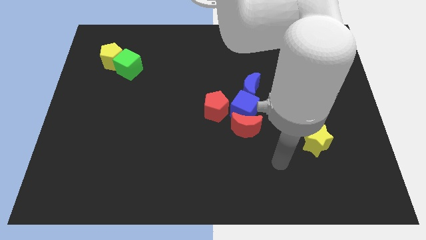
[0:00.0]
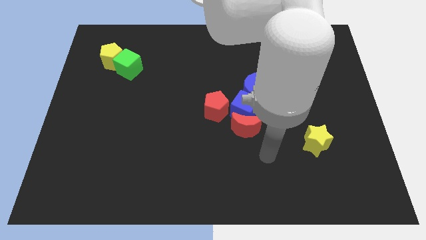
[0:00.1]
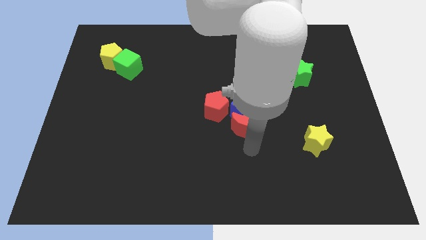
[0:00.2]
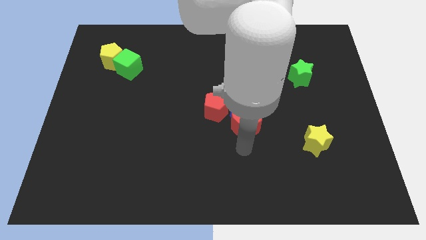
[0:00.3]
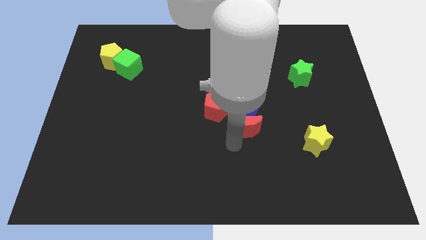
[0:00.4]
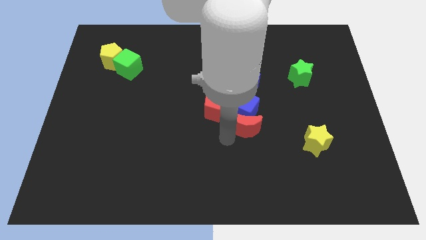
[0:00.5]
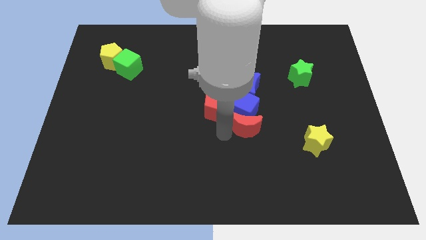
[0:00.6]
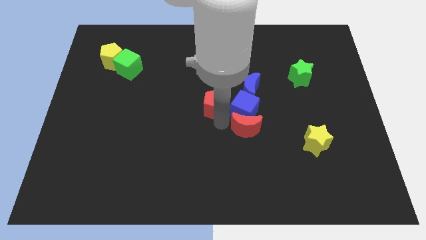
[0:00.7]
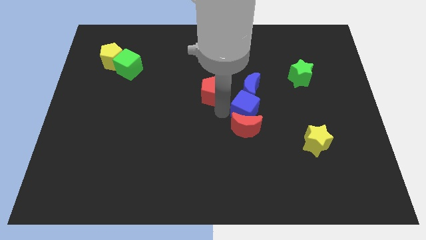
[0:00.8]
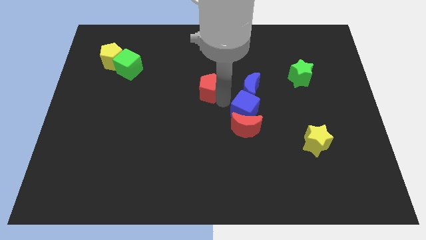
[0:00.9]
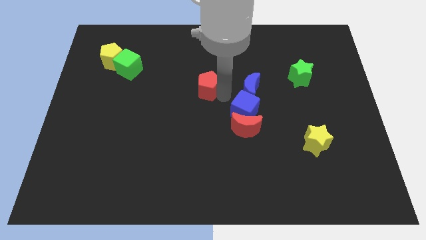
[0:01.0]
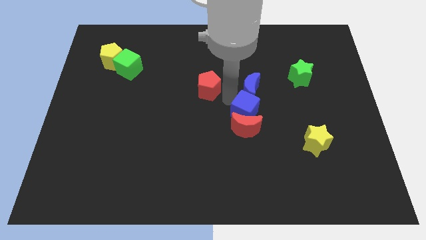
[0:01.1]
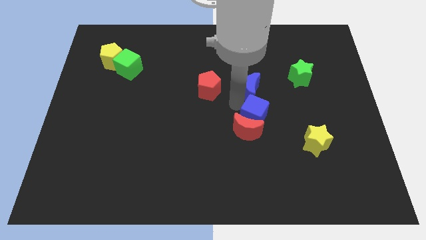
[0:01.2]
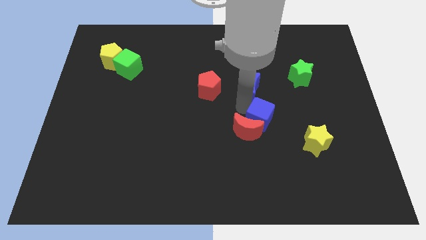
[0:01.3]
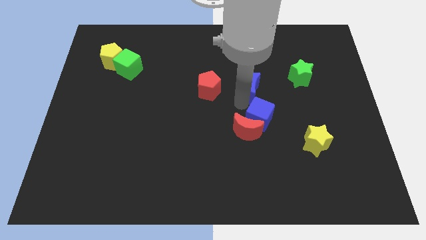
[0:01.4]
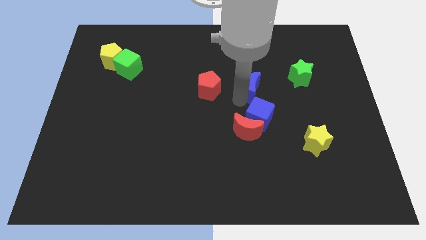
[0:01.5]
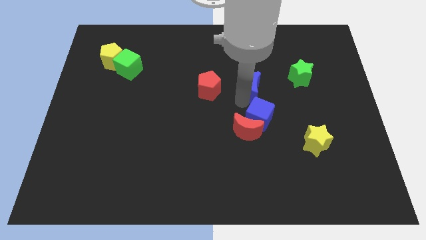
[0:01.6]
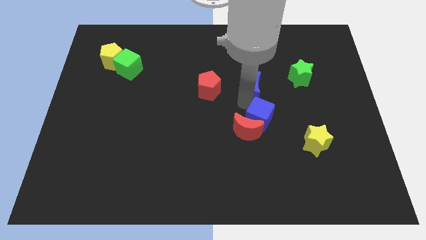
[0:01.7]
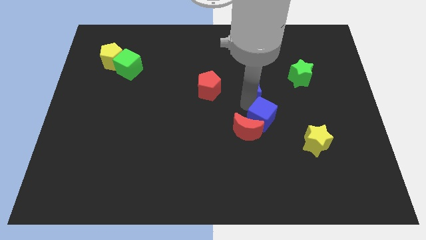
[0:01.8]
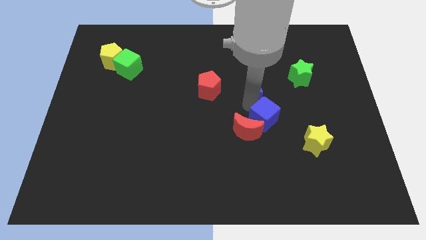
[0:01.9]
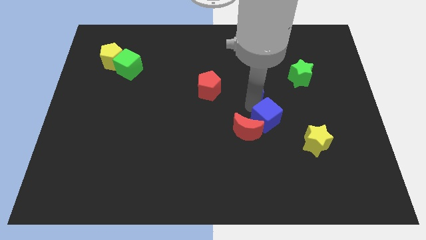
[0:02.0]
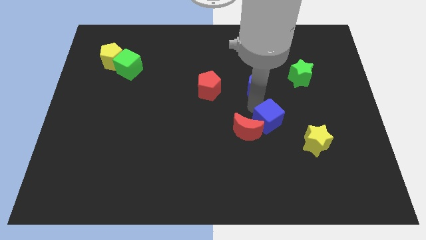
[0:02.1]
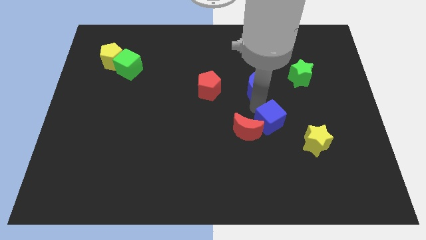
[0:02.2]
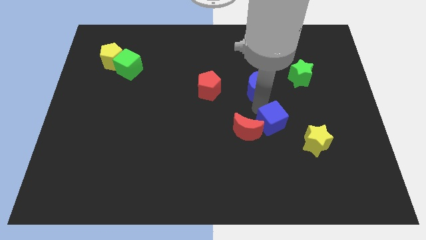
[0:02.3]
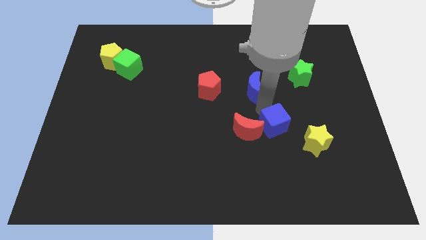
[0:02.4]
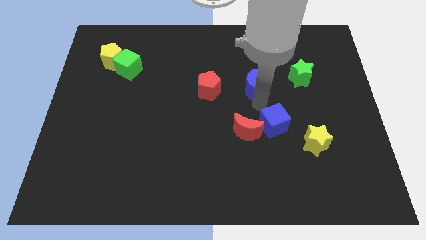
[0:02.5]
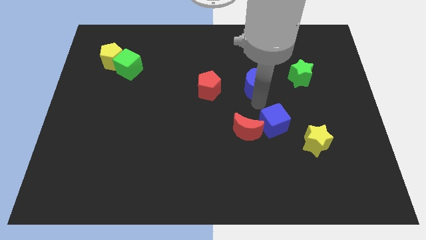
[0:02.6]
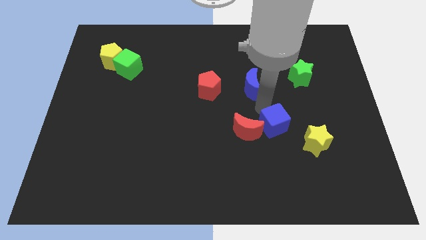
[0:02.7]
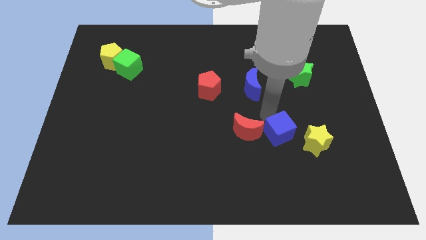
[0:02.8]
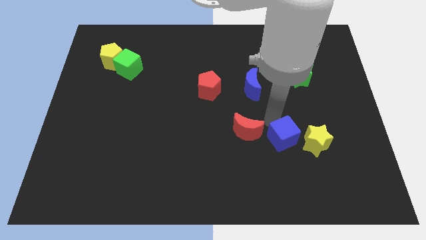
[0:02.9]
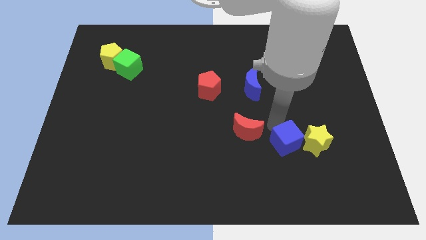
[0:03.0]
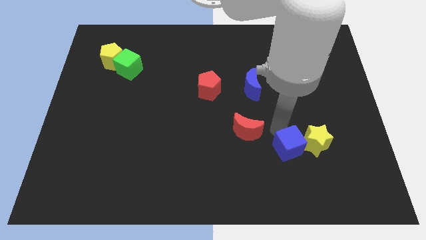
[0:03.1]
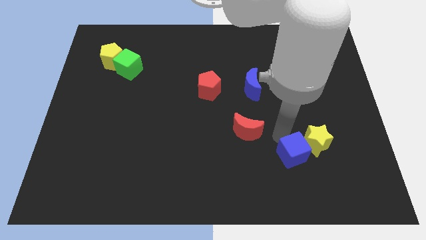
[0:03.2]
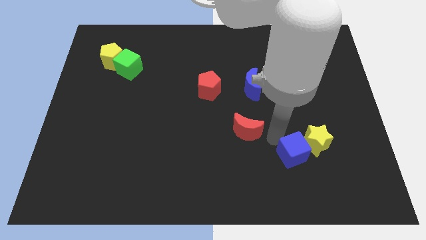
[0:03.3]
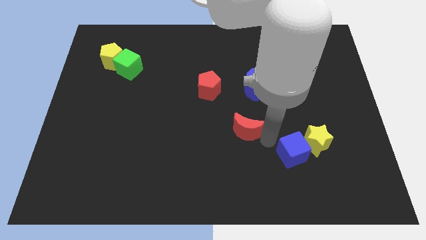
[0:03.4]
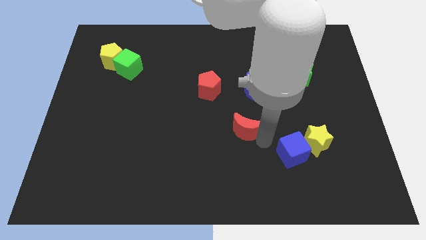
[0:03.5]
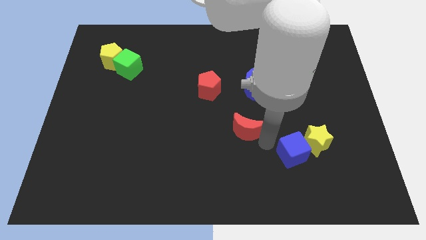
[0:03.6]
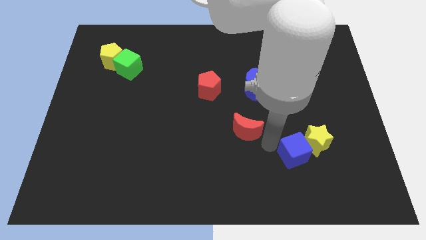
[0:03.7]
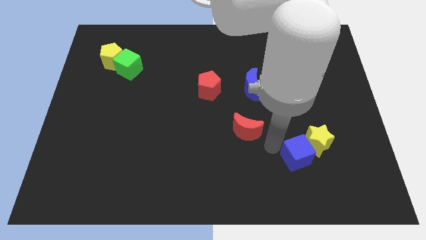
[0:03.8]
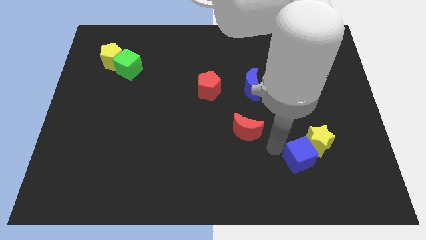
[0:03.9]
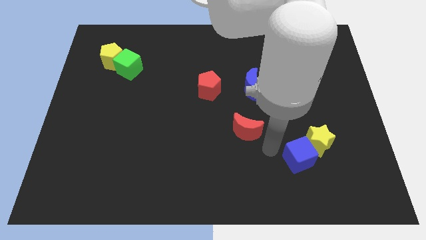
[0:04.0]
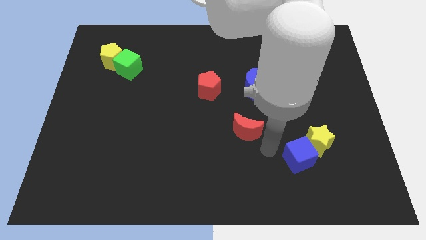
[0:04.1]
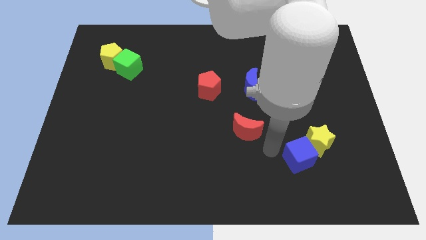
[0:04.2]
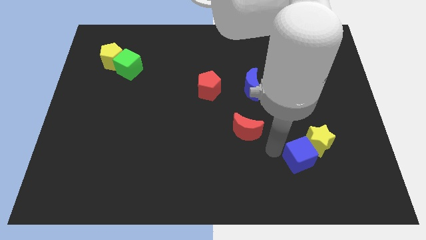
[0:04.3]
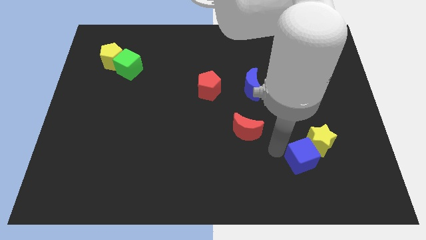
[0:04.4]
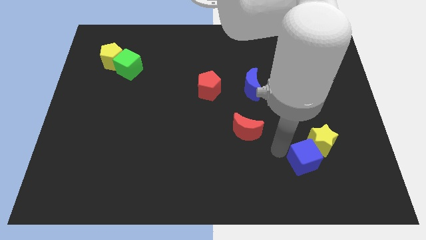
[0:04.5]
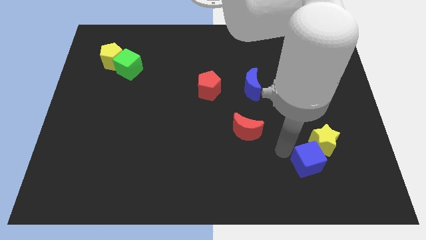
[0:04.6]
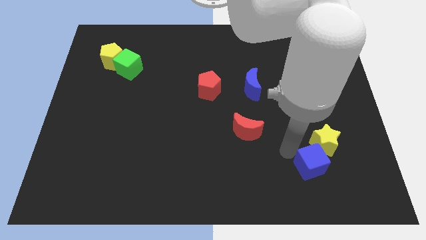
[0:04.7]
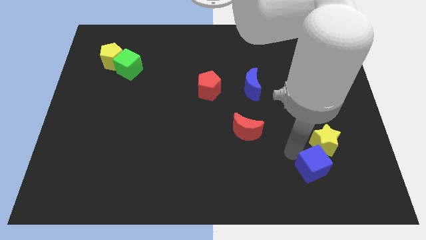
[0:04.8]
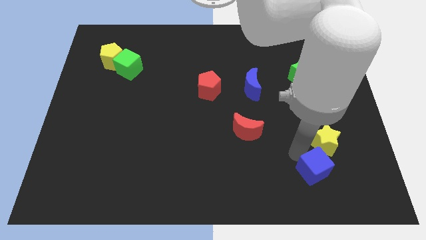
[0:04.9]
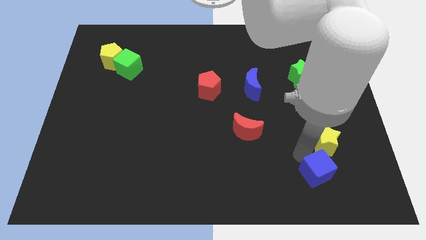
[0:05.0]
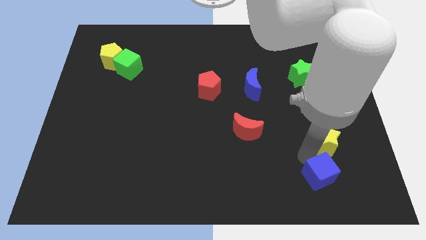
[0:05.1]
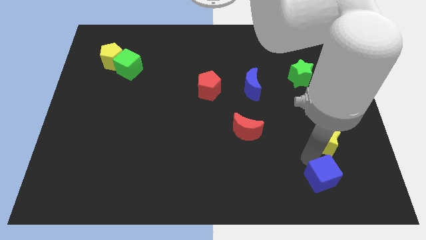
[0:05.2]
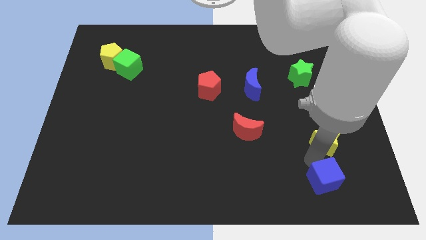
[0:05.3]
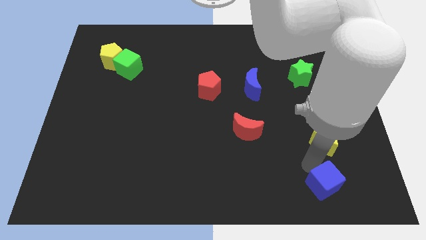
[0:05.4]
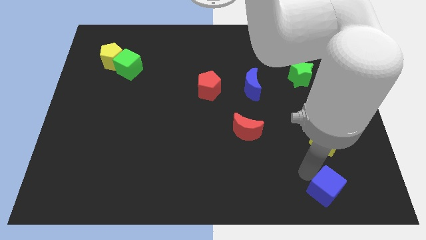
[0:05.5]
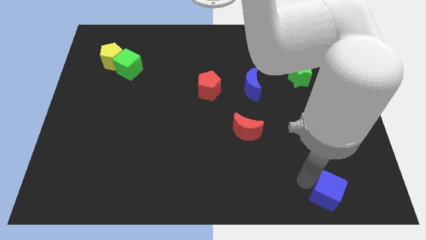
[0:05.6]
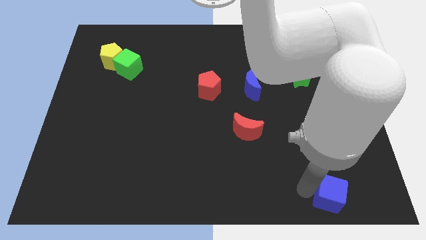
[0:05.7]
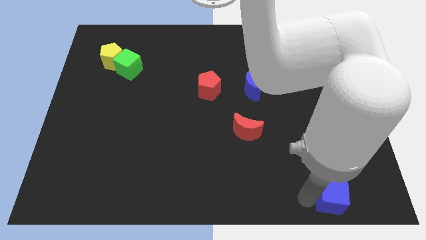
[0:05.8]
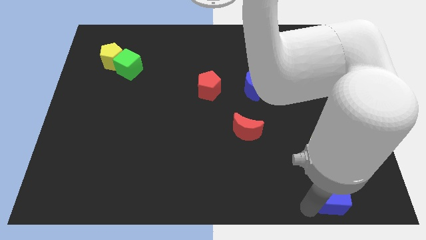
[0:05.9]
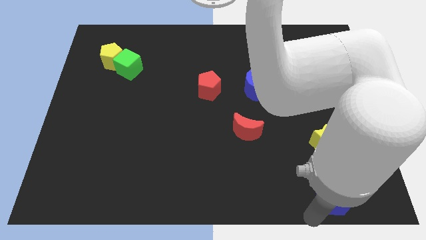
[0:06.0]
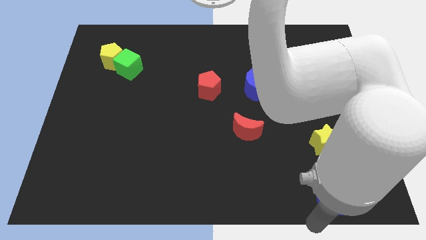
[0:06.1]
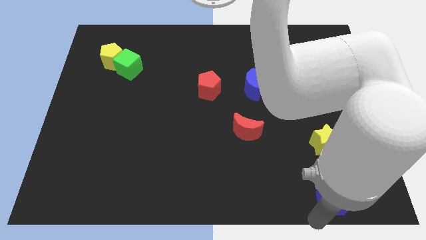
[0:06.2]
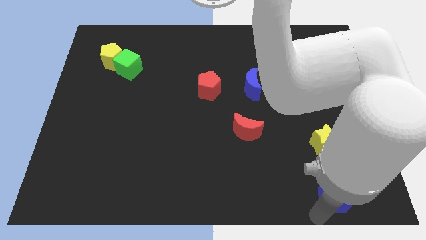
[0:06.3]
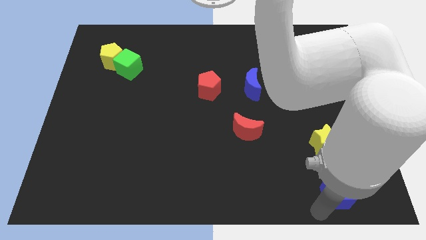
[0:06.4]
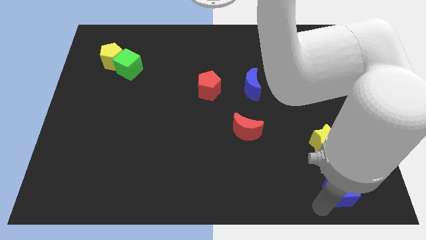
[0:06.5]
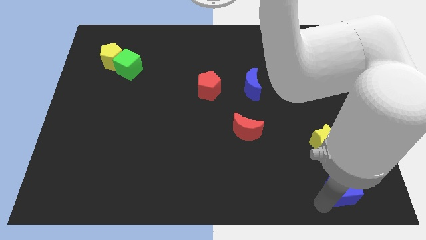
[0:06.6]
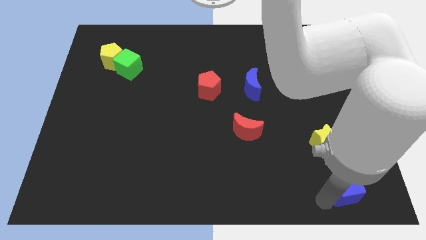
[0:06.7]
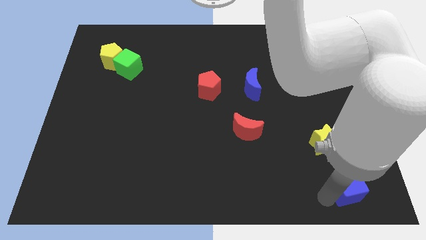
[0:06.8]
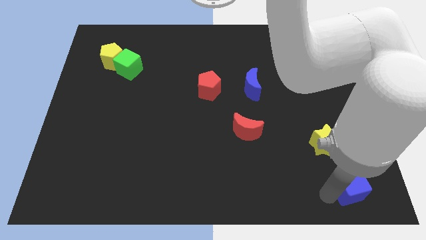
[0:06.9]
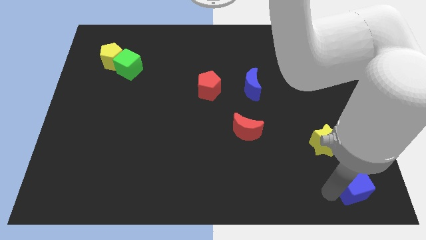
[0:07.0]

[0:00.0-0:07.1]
slide the blue cube to the bottom right of the yellow star

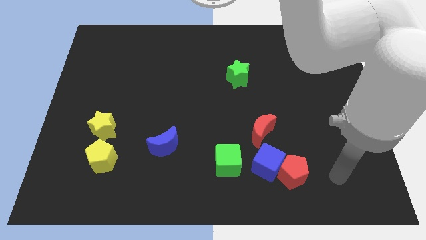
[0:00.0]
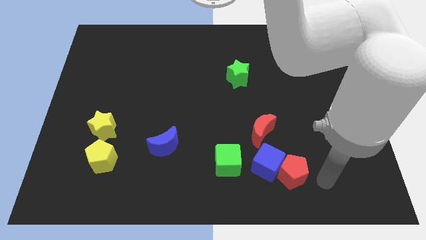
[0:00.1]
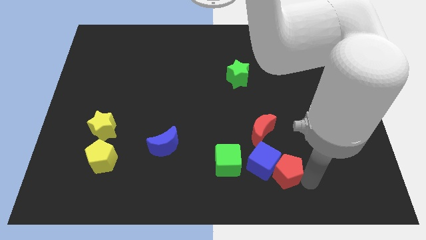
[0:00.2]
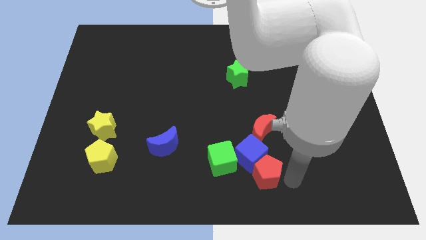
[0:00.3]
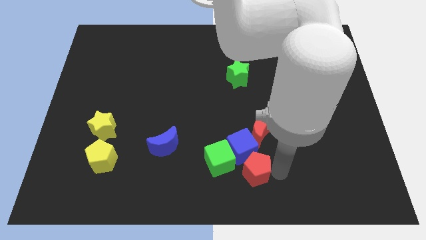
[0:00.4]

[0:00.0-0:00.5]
push the blue cube just left of the red moon
